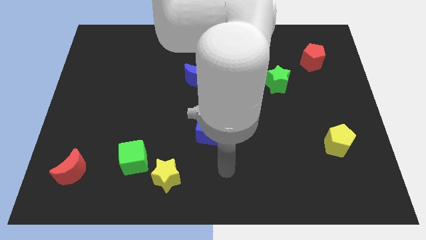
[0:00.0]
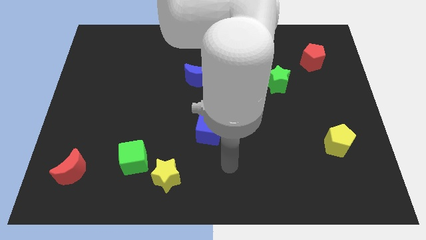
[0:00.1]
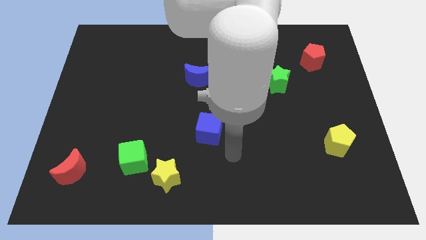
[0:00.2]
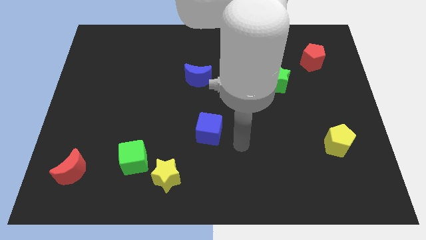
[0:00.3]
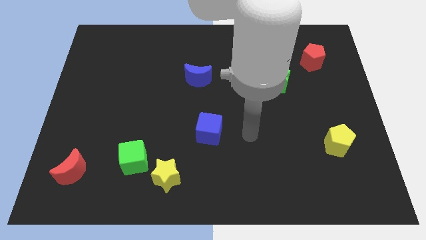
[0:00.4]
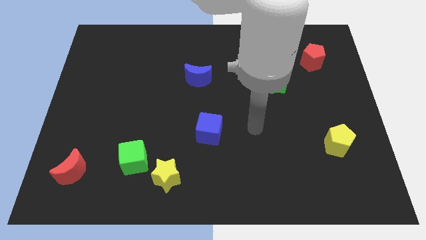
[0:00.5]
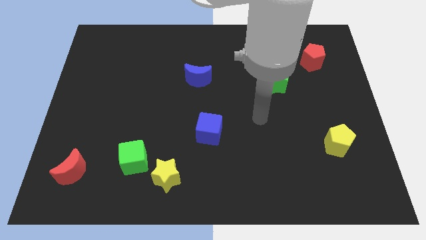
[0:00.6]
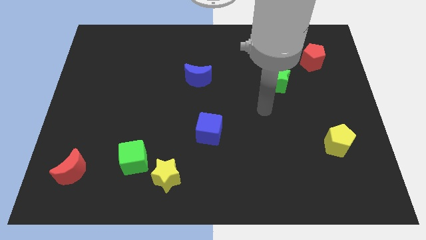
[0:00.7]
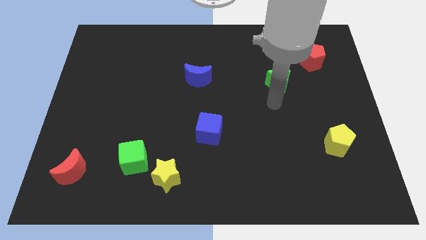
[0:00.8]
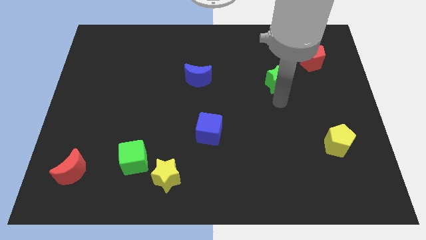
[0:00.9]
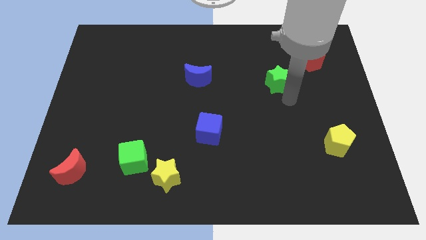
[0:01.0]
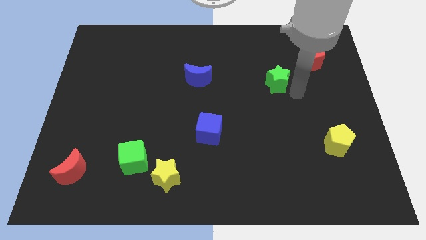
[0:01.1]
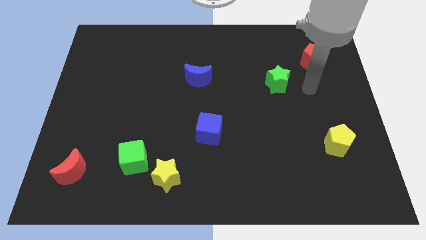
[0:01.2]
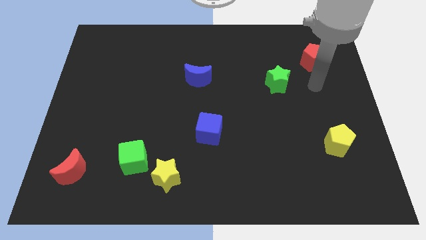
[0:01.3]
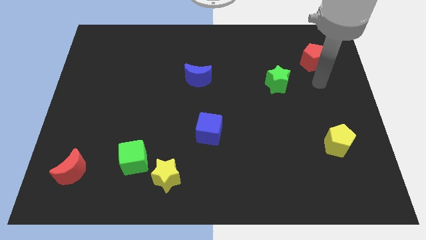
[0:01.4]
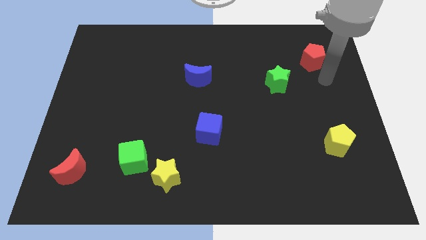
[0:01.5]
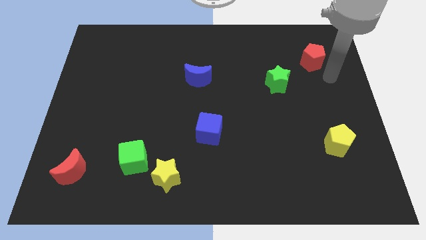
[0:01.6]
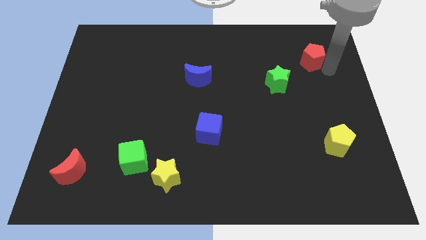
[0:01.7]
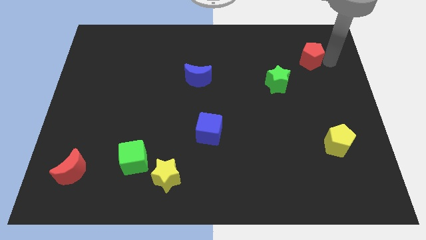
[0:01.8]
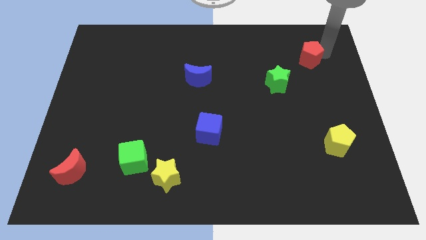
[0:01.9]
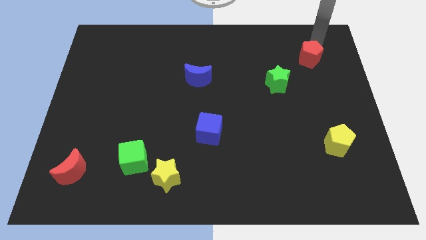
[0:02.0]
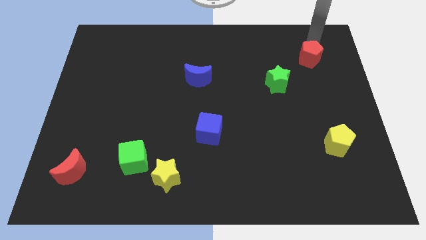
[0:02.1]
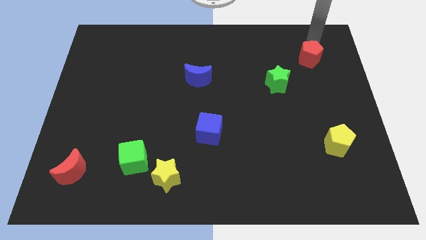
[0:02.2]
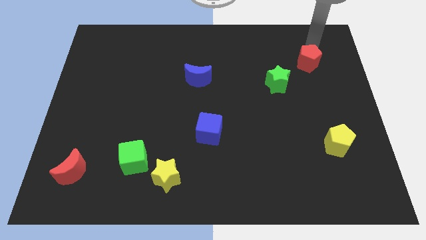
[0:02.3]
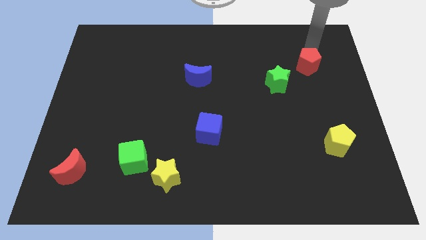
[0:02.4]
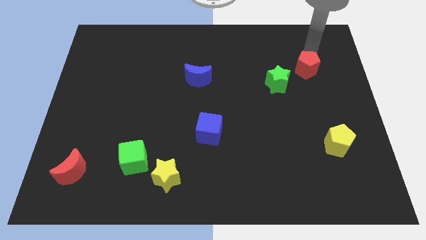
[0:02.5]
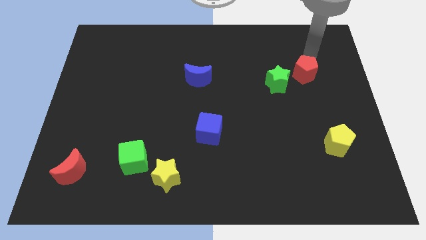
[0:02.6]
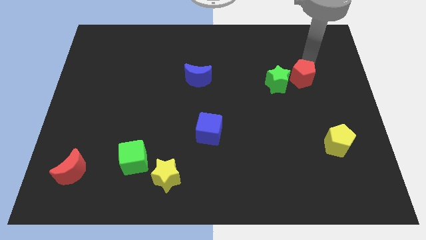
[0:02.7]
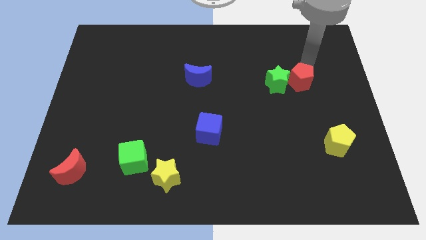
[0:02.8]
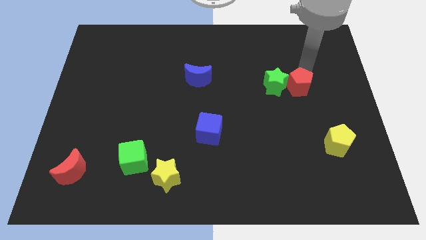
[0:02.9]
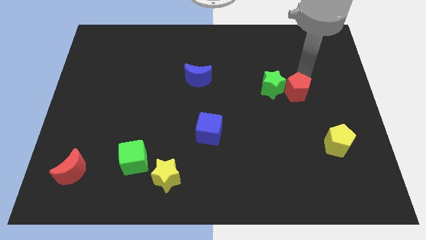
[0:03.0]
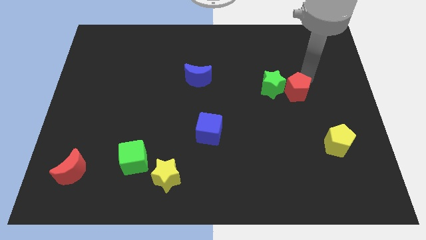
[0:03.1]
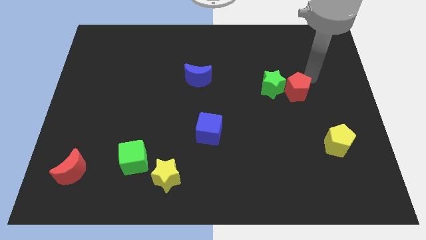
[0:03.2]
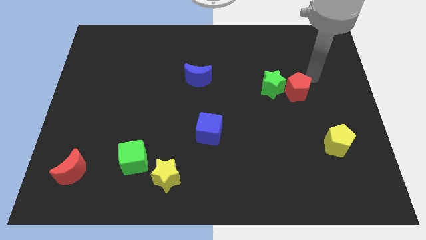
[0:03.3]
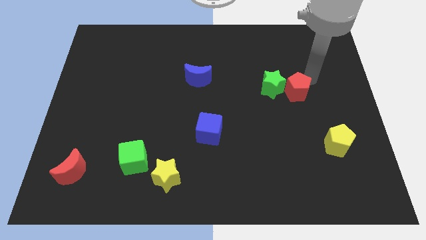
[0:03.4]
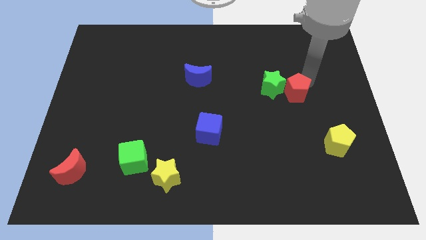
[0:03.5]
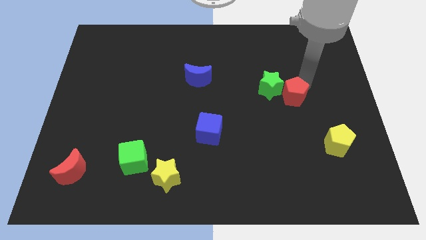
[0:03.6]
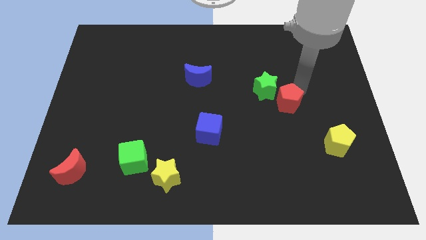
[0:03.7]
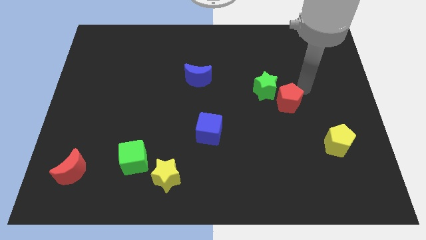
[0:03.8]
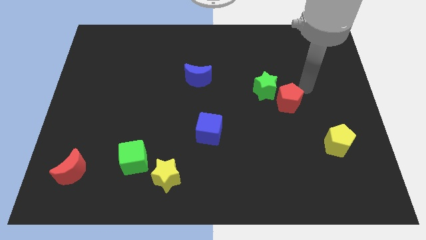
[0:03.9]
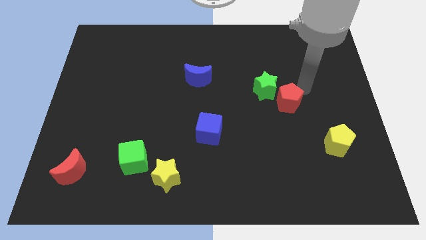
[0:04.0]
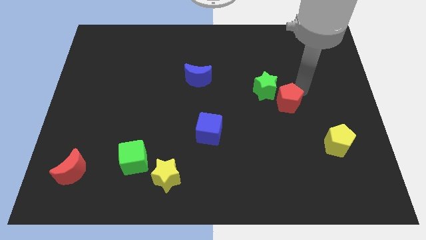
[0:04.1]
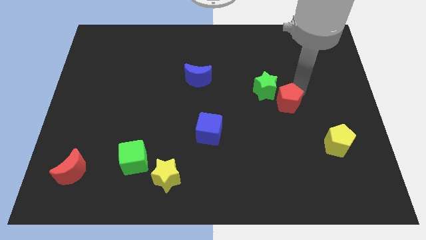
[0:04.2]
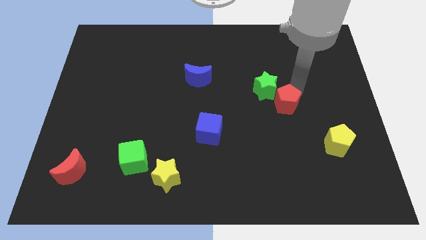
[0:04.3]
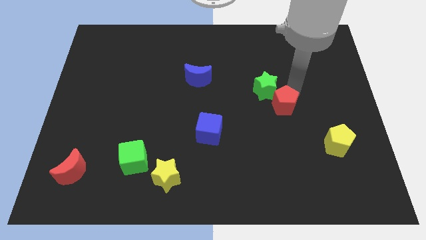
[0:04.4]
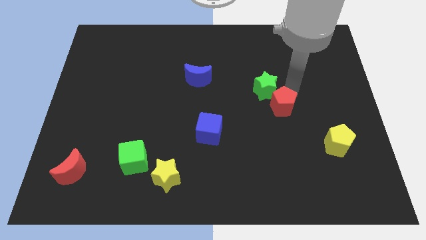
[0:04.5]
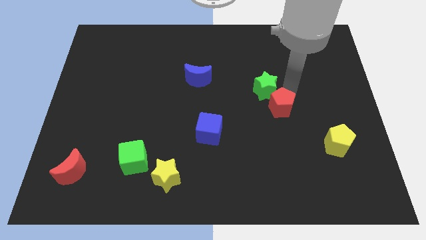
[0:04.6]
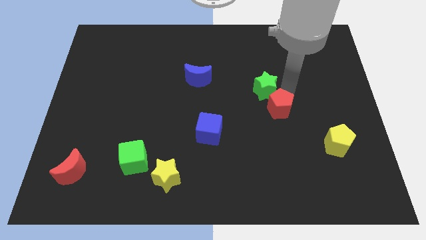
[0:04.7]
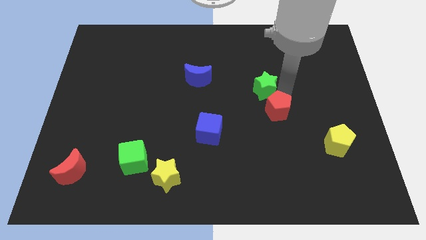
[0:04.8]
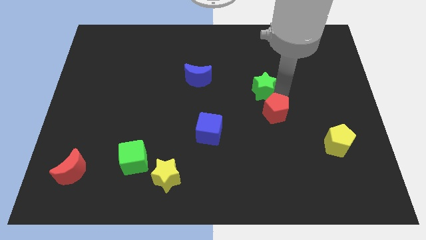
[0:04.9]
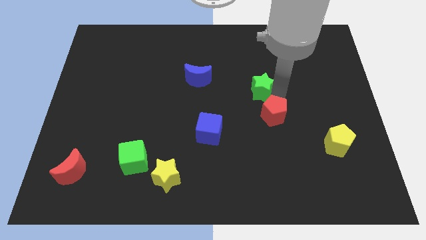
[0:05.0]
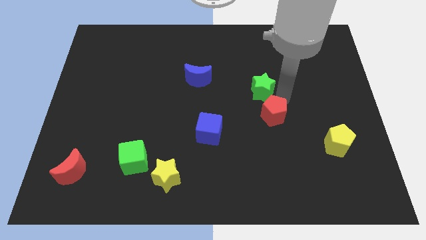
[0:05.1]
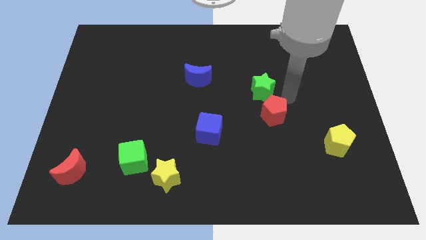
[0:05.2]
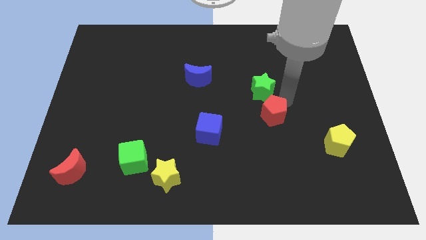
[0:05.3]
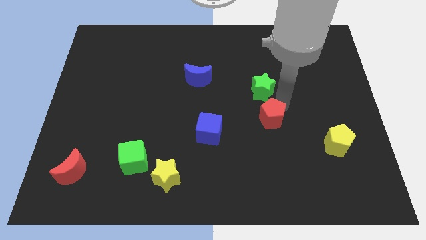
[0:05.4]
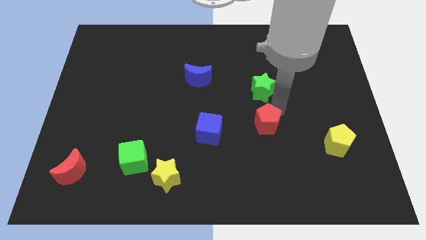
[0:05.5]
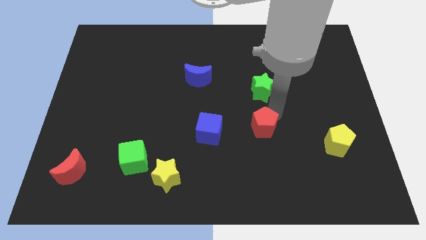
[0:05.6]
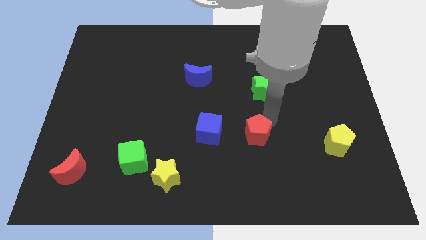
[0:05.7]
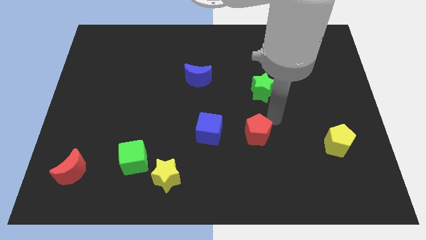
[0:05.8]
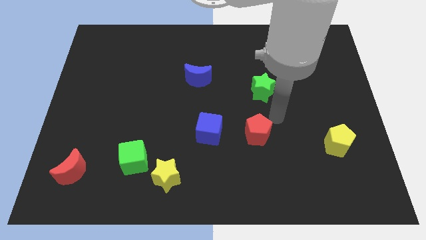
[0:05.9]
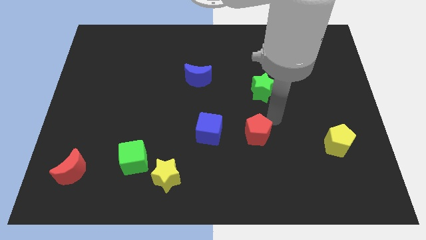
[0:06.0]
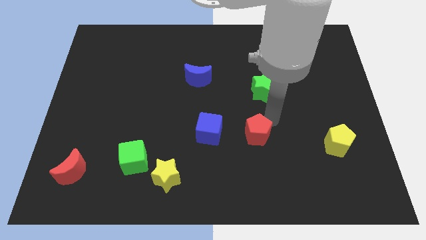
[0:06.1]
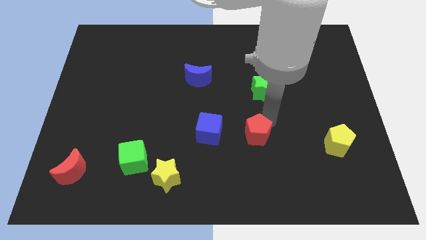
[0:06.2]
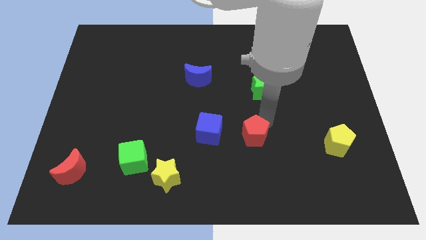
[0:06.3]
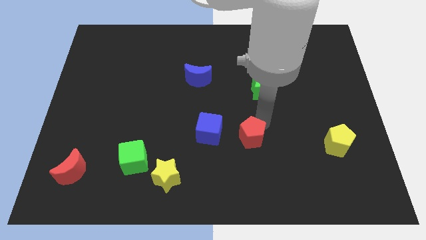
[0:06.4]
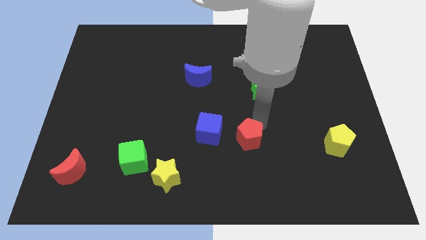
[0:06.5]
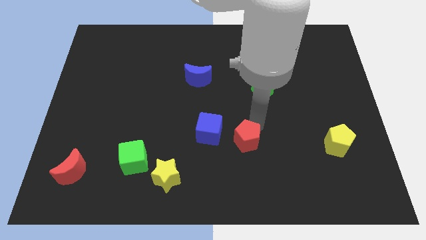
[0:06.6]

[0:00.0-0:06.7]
slide the red pentagon diagonally down and to the right of the blue cube
